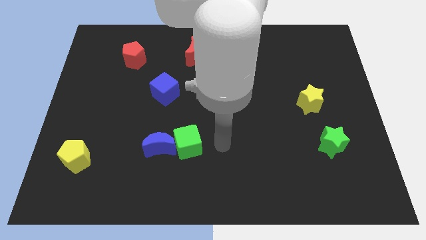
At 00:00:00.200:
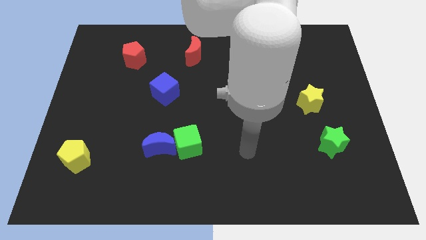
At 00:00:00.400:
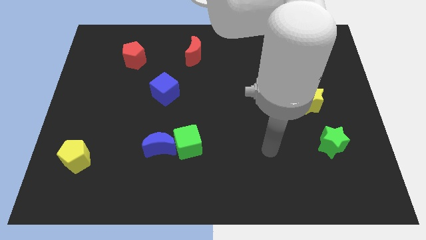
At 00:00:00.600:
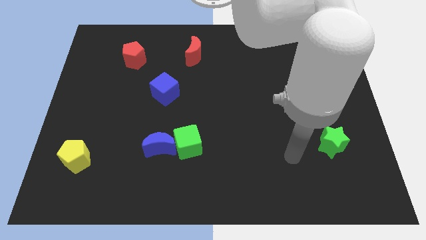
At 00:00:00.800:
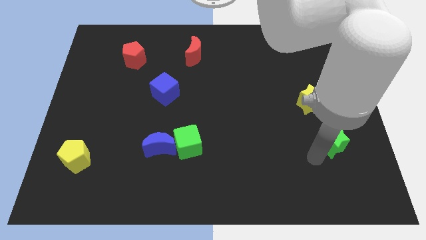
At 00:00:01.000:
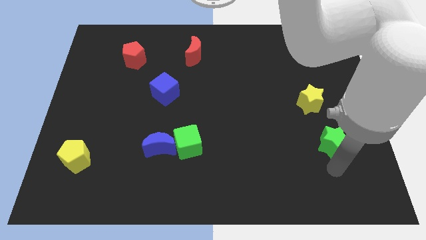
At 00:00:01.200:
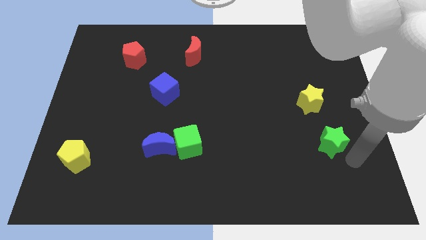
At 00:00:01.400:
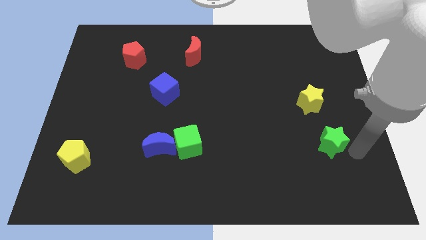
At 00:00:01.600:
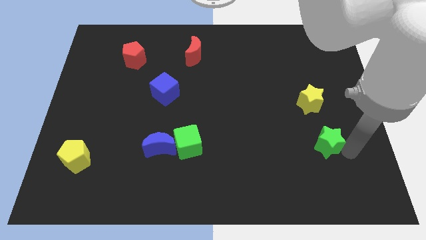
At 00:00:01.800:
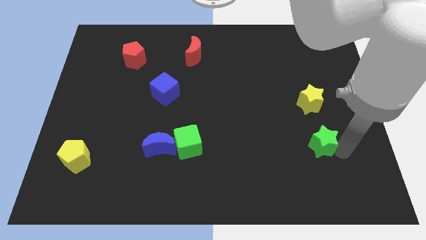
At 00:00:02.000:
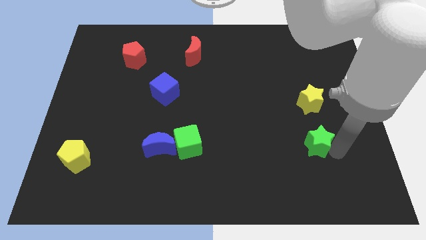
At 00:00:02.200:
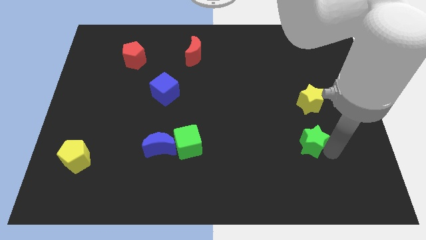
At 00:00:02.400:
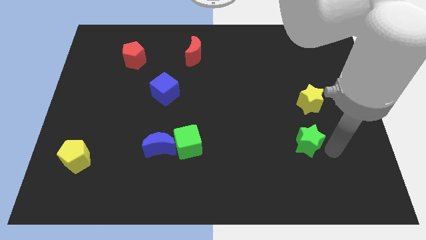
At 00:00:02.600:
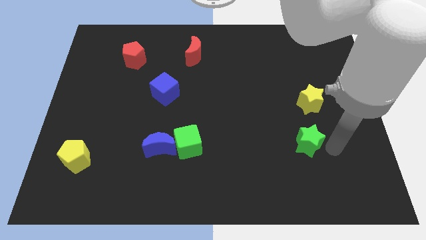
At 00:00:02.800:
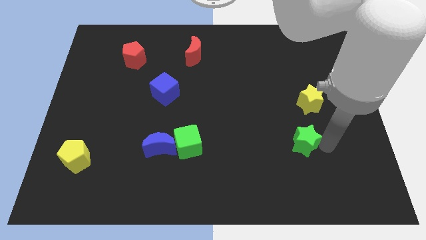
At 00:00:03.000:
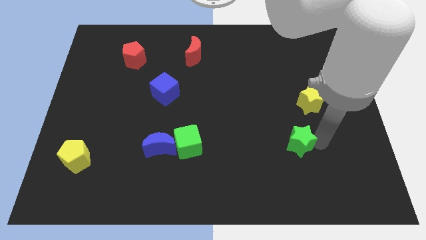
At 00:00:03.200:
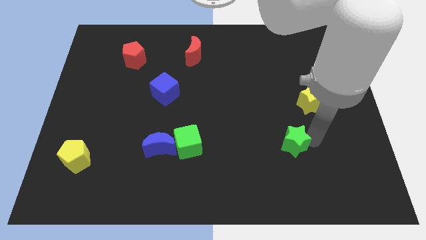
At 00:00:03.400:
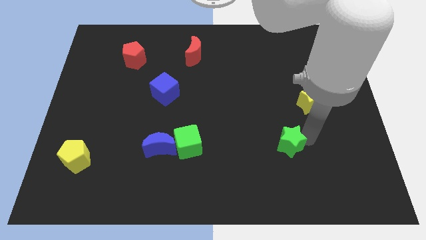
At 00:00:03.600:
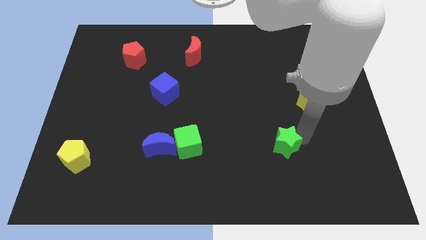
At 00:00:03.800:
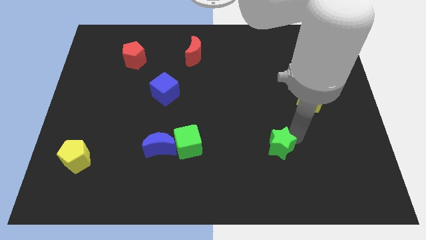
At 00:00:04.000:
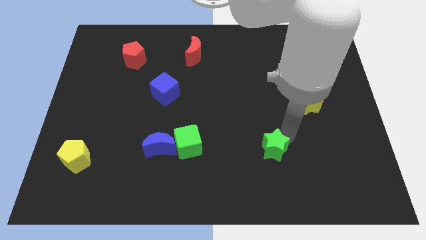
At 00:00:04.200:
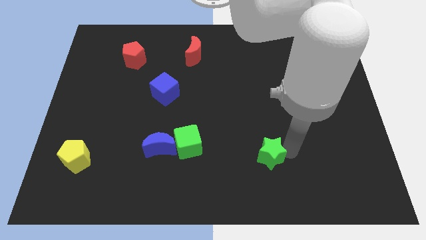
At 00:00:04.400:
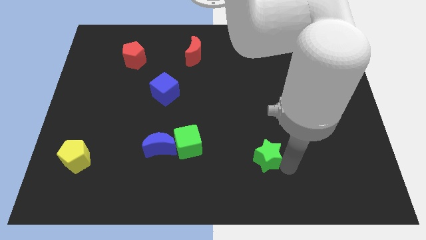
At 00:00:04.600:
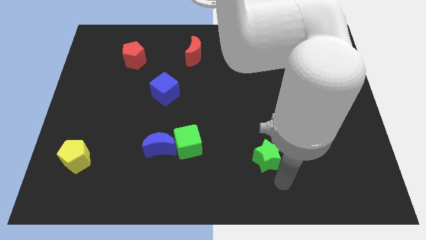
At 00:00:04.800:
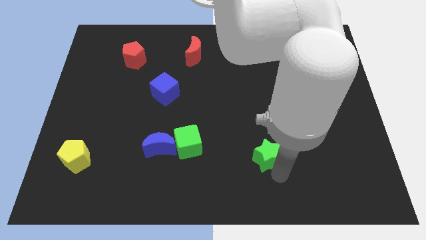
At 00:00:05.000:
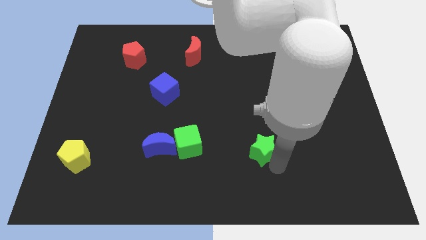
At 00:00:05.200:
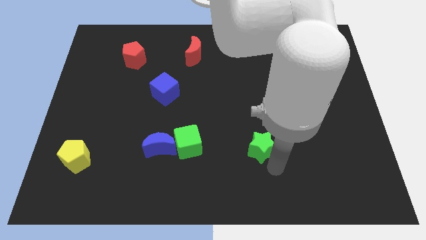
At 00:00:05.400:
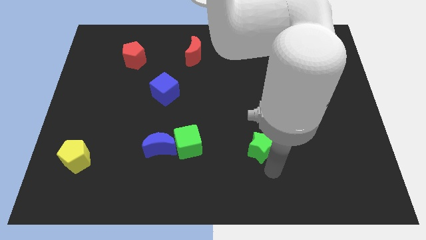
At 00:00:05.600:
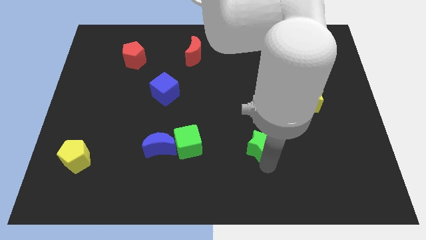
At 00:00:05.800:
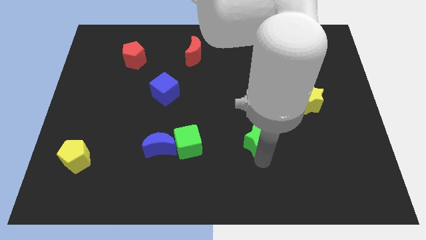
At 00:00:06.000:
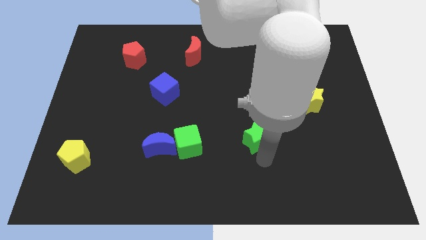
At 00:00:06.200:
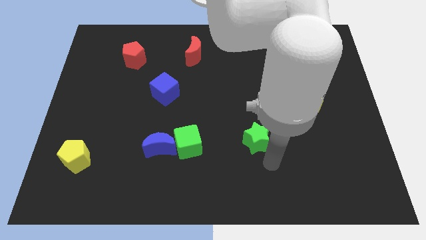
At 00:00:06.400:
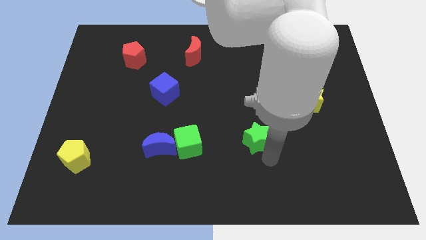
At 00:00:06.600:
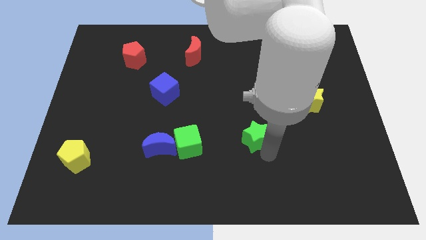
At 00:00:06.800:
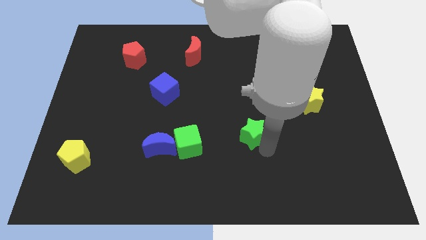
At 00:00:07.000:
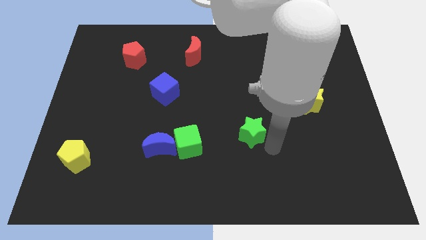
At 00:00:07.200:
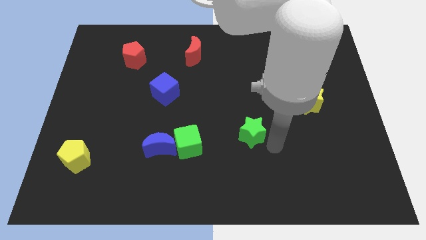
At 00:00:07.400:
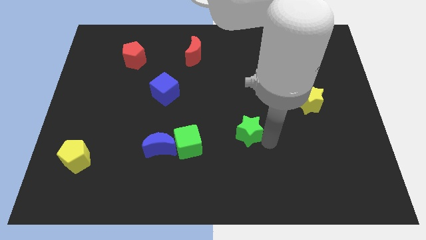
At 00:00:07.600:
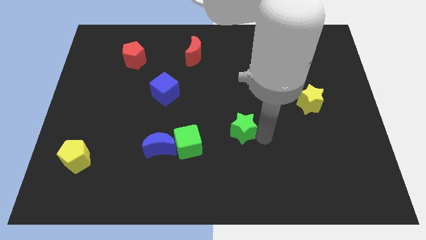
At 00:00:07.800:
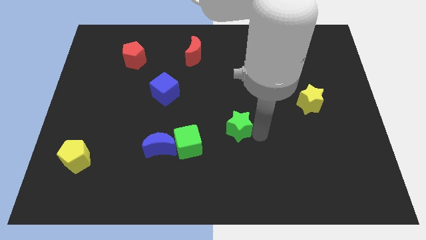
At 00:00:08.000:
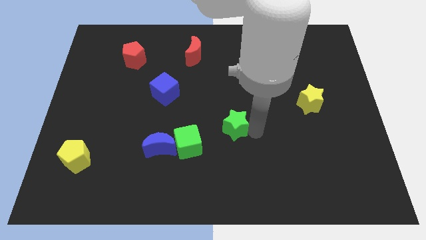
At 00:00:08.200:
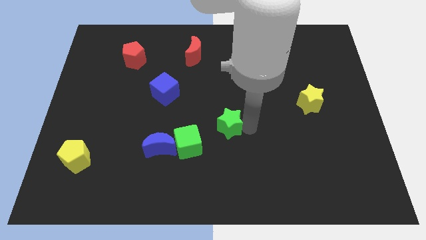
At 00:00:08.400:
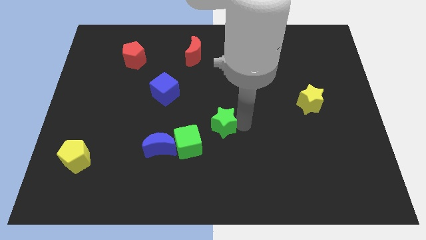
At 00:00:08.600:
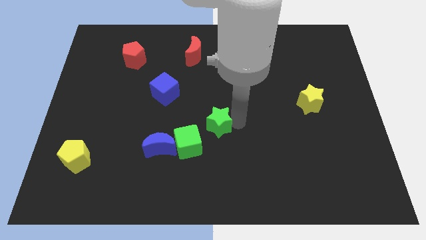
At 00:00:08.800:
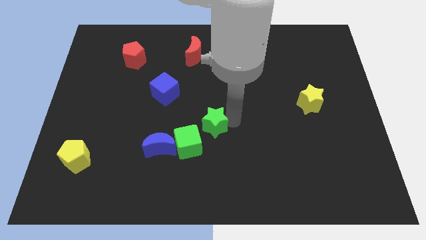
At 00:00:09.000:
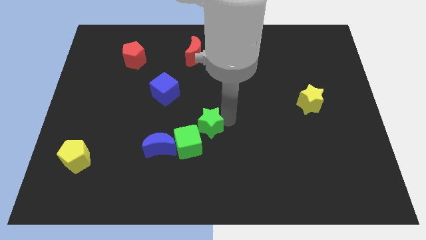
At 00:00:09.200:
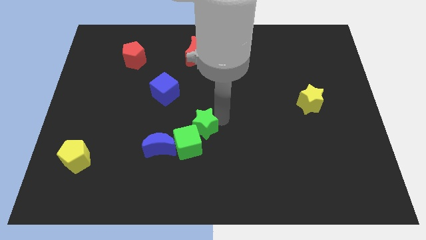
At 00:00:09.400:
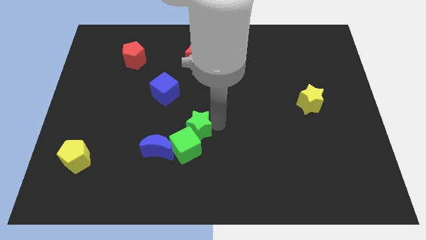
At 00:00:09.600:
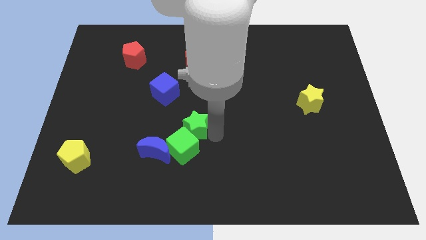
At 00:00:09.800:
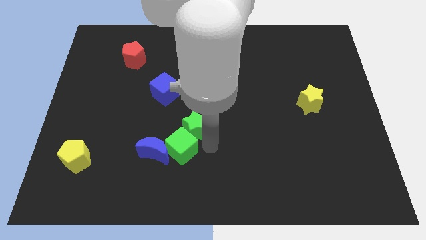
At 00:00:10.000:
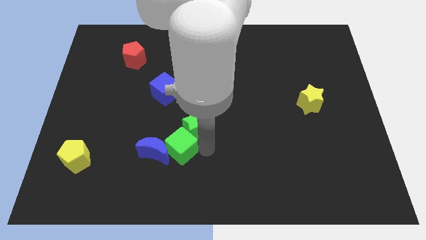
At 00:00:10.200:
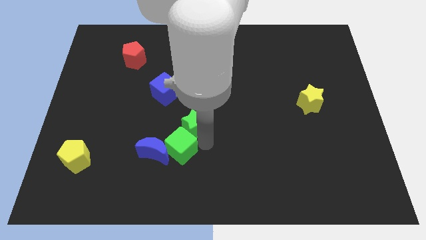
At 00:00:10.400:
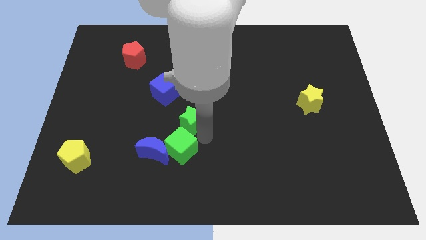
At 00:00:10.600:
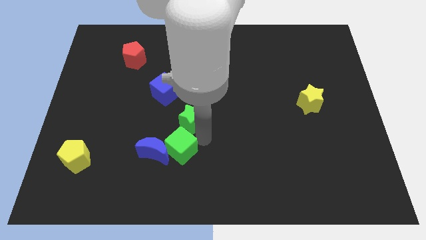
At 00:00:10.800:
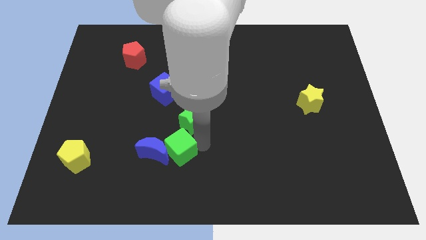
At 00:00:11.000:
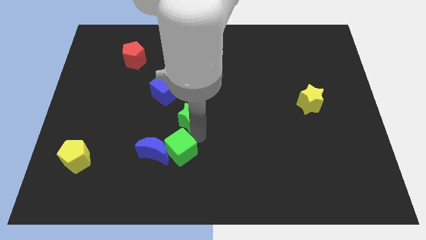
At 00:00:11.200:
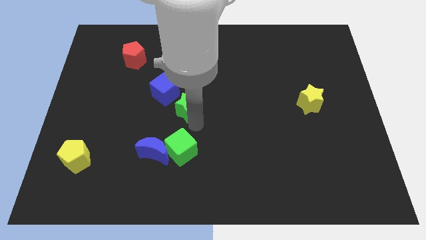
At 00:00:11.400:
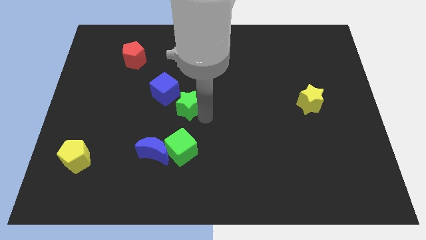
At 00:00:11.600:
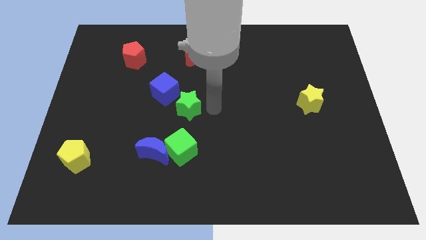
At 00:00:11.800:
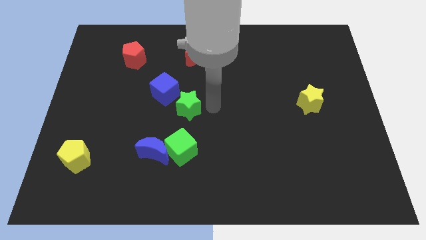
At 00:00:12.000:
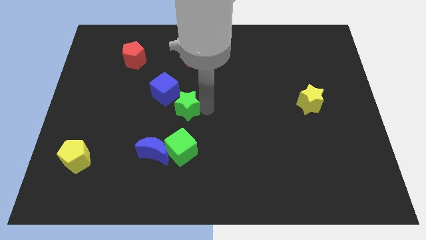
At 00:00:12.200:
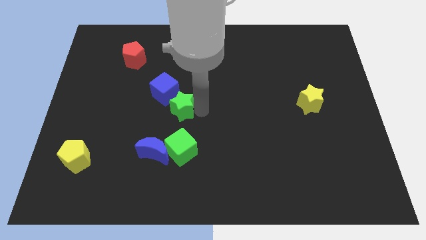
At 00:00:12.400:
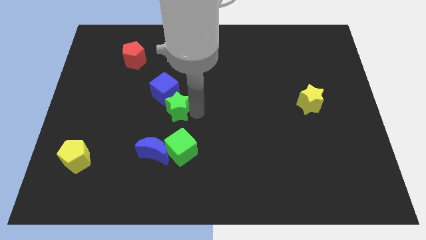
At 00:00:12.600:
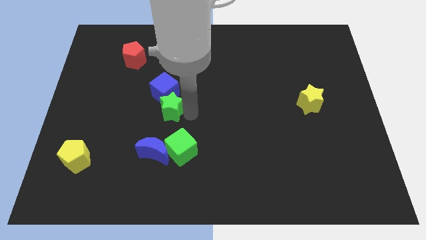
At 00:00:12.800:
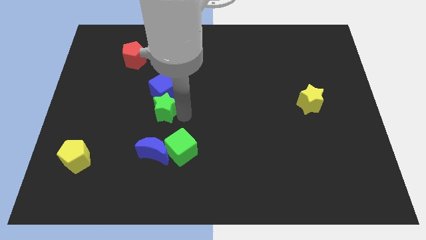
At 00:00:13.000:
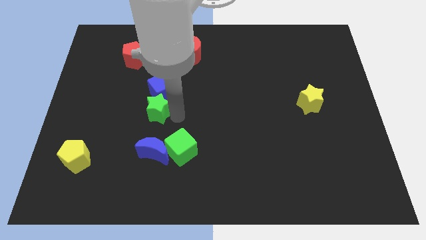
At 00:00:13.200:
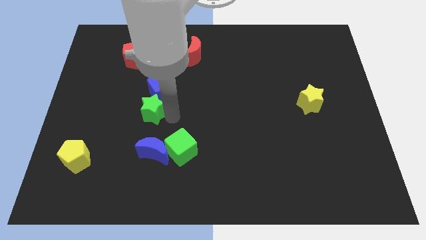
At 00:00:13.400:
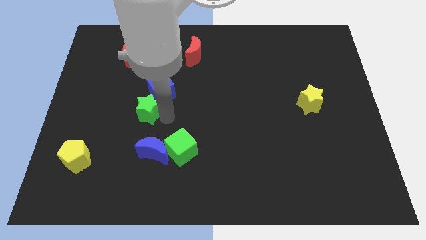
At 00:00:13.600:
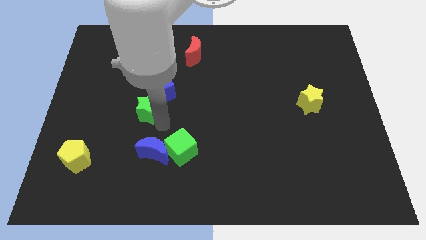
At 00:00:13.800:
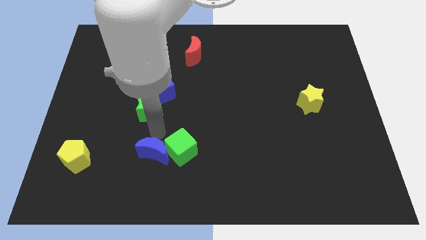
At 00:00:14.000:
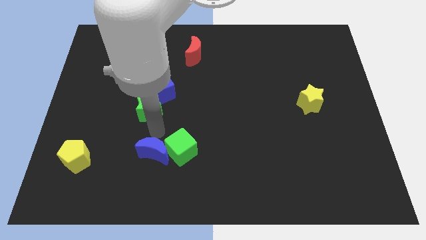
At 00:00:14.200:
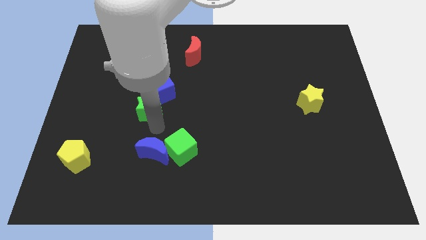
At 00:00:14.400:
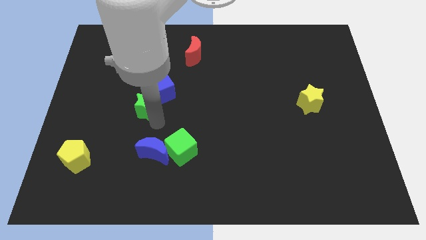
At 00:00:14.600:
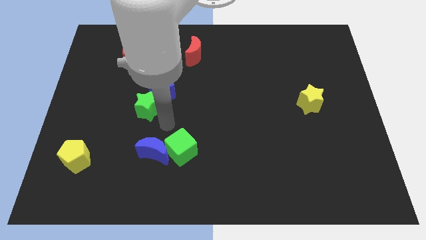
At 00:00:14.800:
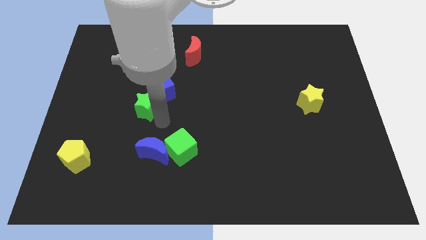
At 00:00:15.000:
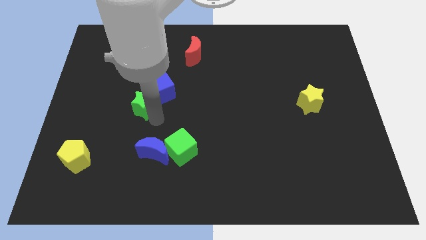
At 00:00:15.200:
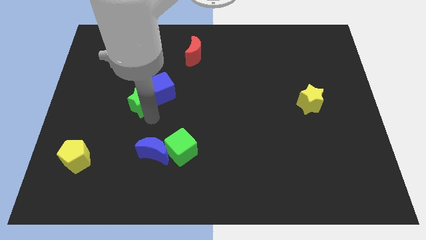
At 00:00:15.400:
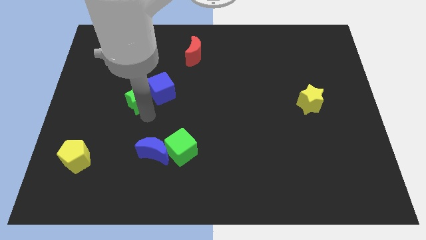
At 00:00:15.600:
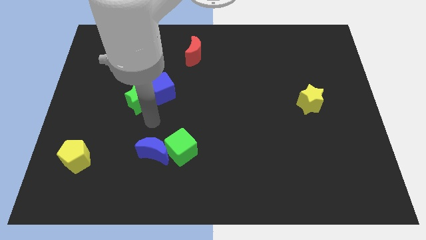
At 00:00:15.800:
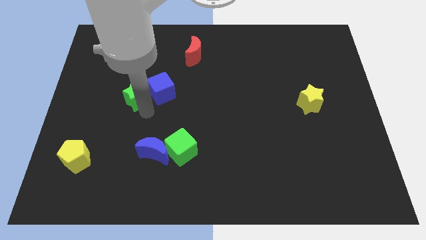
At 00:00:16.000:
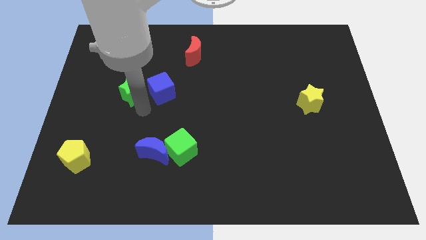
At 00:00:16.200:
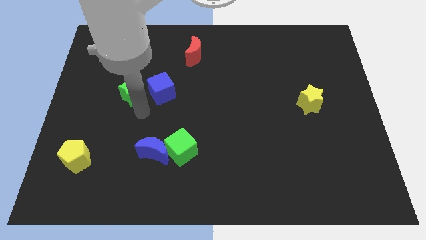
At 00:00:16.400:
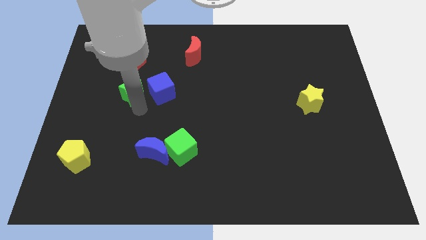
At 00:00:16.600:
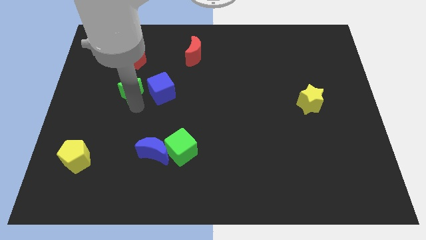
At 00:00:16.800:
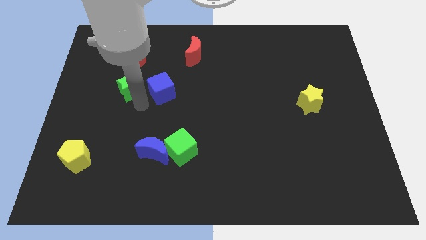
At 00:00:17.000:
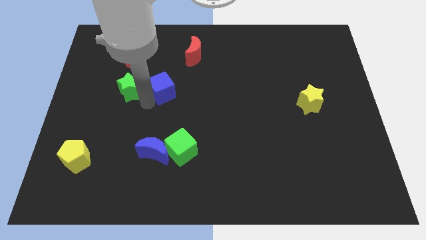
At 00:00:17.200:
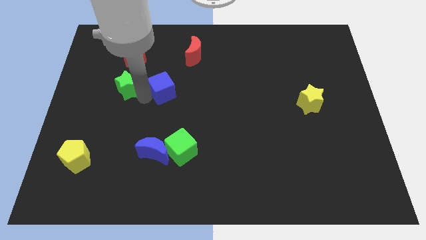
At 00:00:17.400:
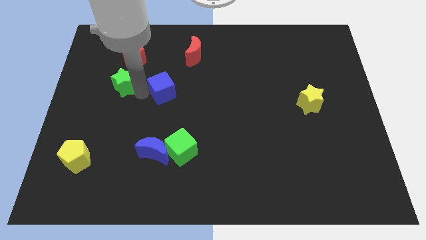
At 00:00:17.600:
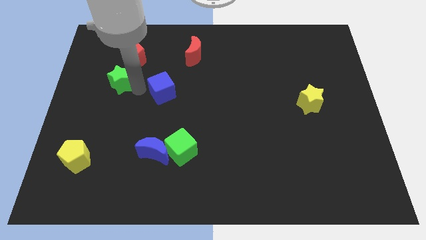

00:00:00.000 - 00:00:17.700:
slide the green star diagonally down and to the left of the red pentagon
